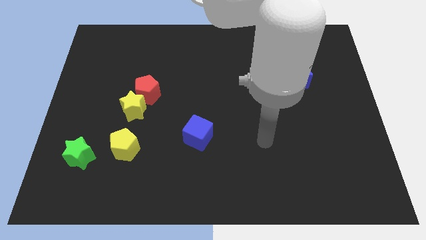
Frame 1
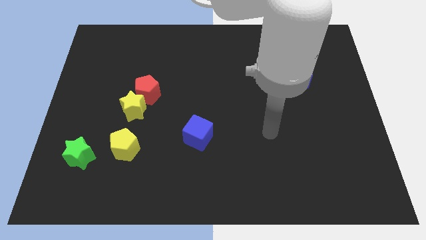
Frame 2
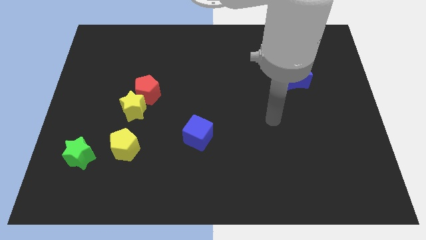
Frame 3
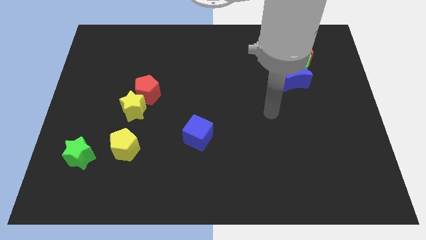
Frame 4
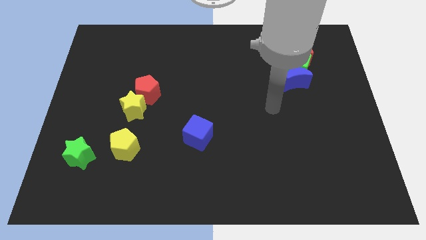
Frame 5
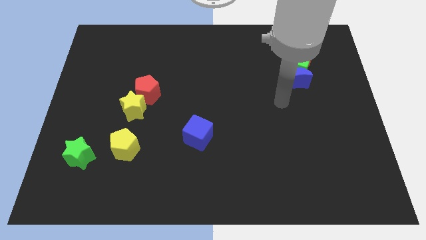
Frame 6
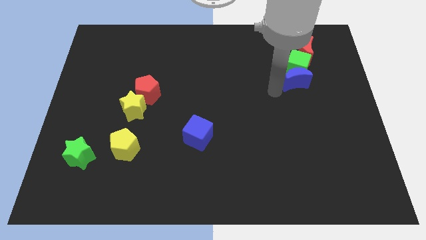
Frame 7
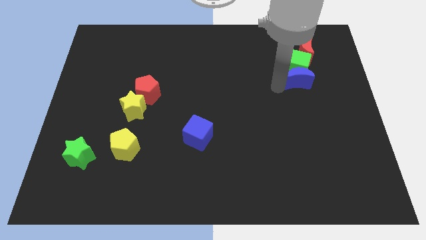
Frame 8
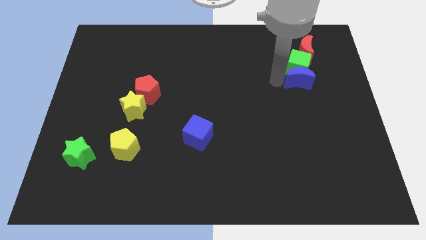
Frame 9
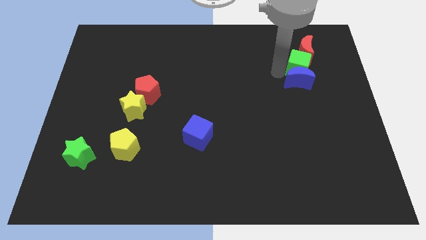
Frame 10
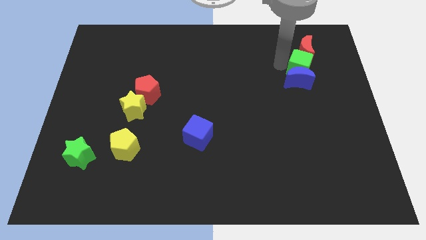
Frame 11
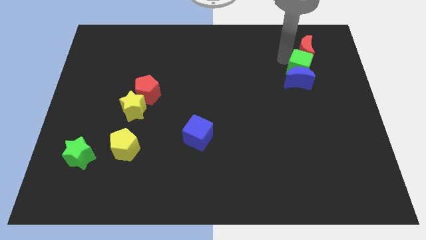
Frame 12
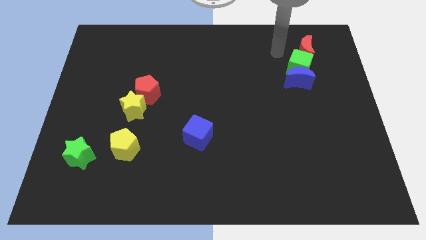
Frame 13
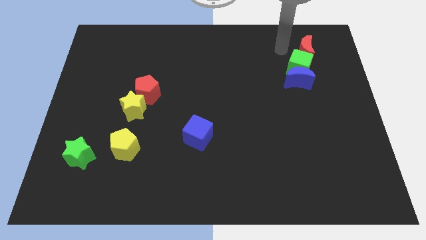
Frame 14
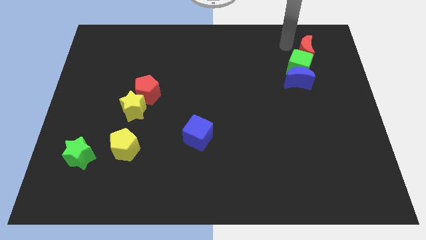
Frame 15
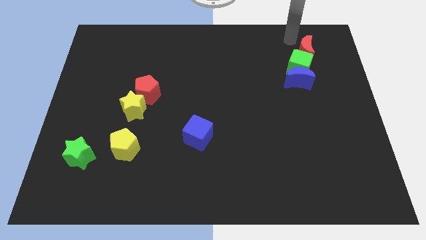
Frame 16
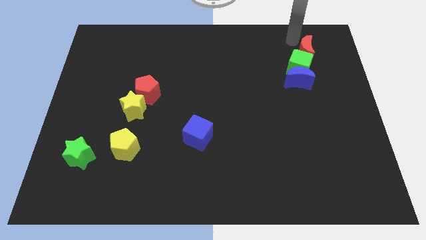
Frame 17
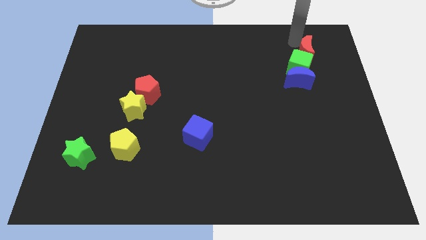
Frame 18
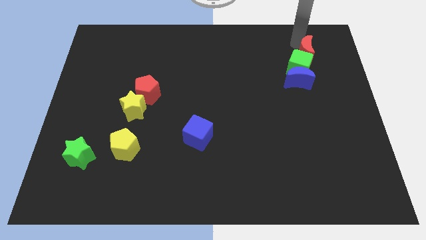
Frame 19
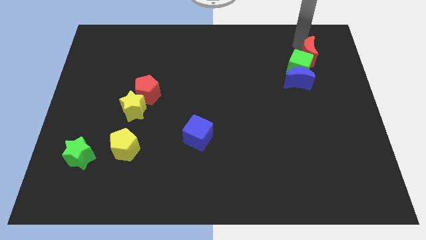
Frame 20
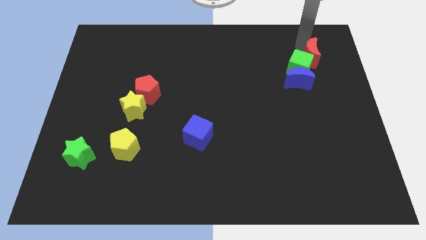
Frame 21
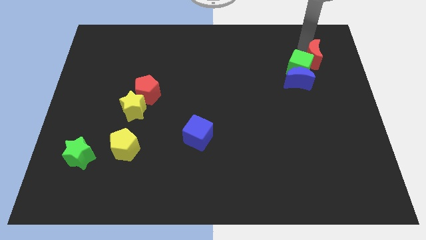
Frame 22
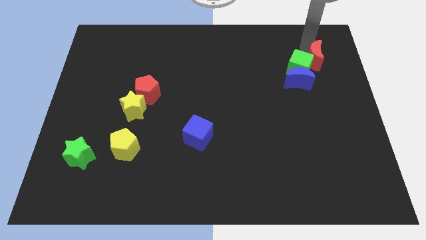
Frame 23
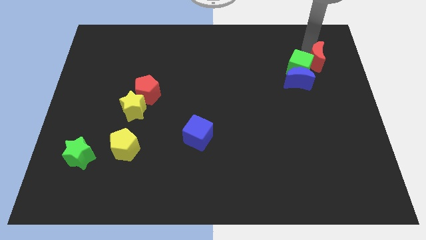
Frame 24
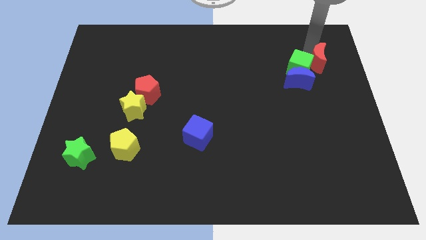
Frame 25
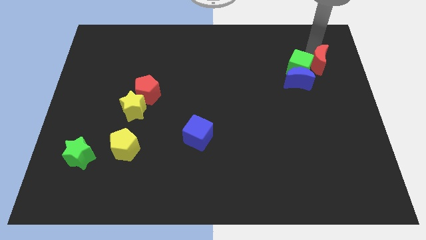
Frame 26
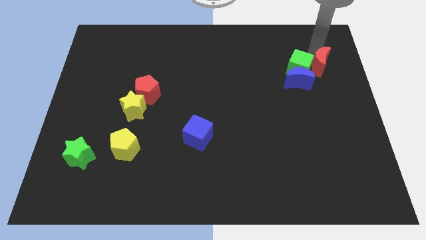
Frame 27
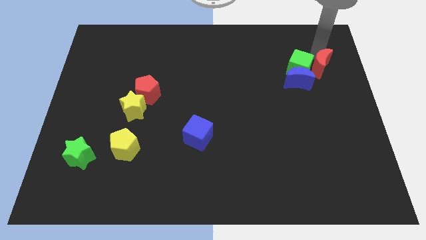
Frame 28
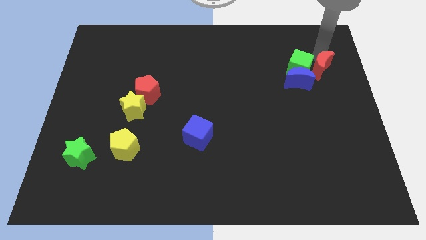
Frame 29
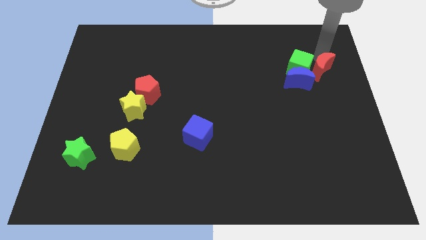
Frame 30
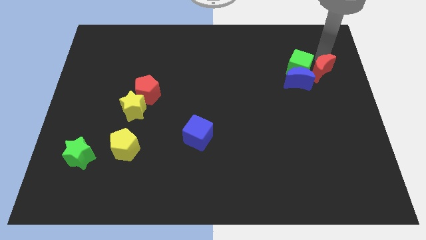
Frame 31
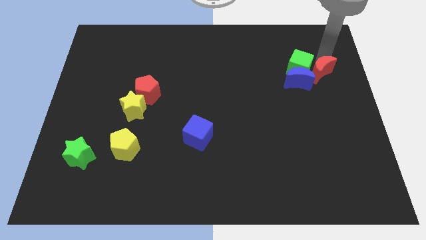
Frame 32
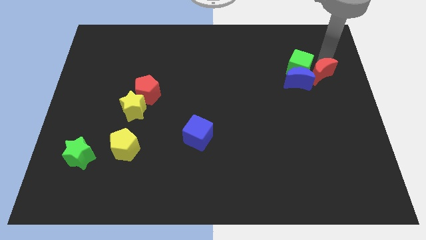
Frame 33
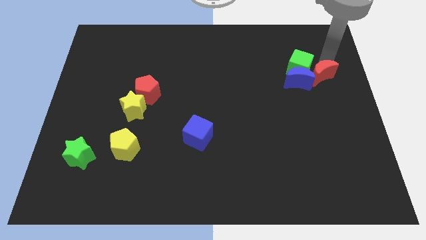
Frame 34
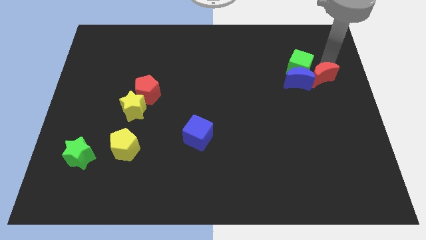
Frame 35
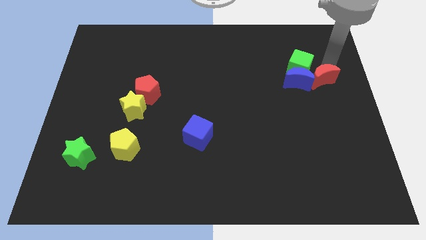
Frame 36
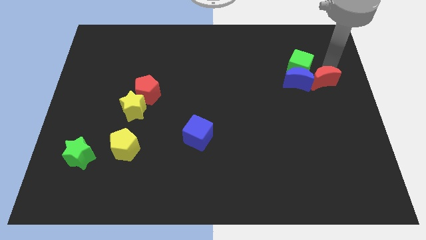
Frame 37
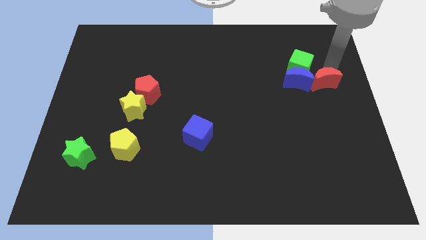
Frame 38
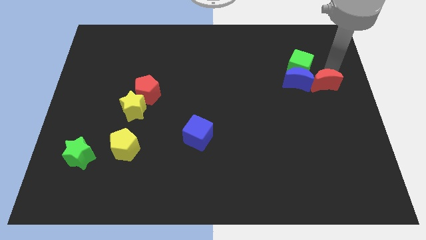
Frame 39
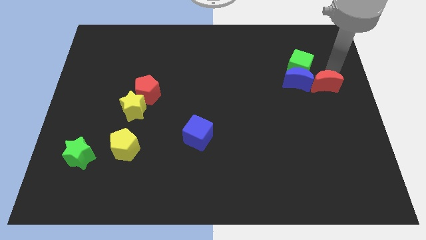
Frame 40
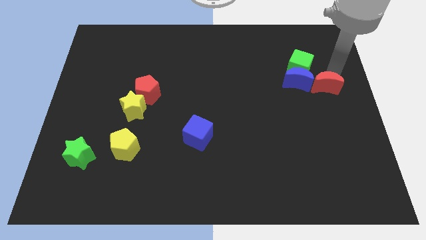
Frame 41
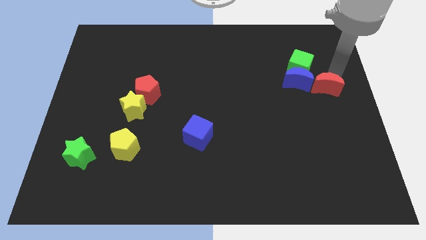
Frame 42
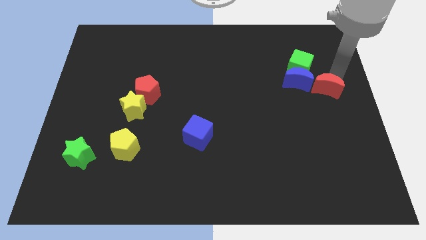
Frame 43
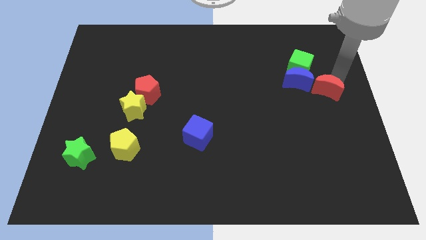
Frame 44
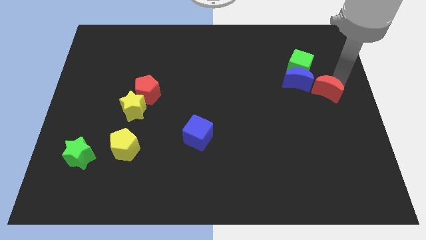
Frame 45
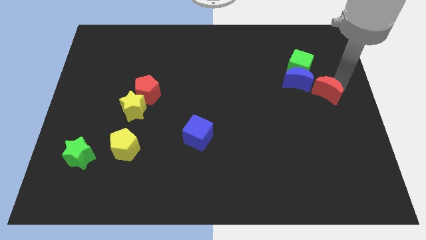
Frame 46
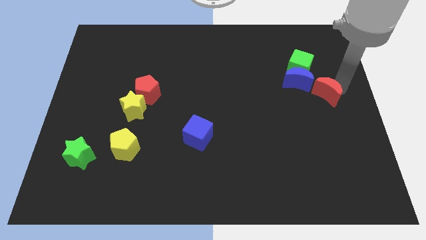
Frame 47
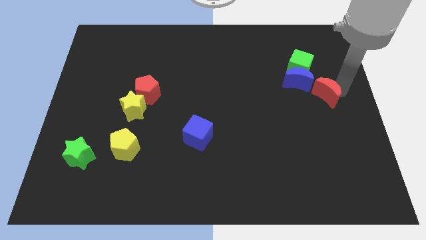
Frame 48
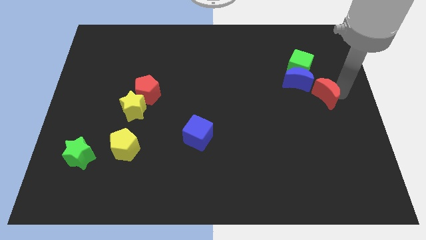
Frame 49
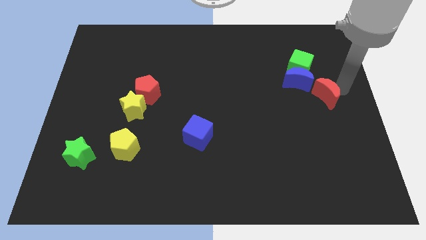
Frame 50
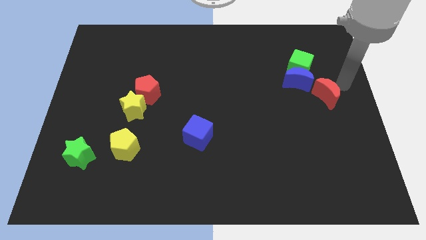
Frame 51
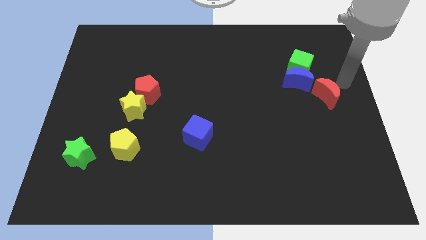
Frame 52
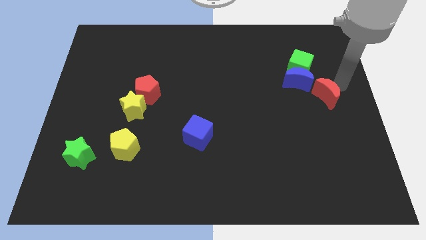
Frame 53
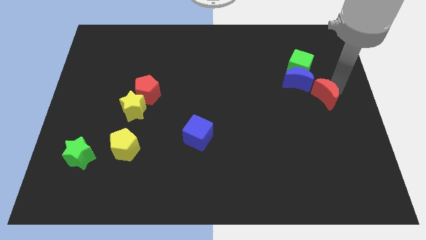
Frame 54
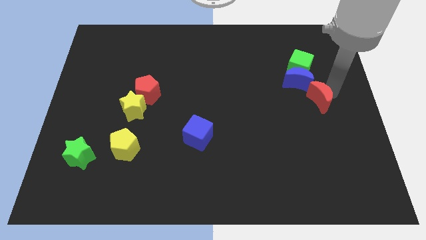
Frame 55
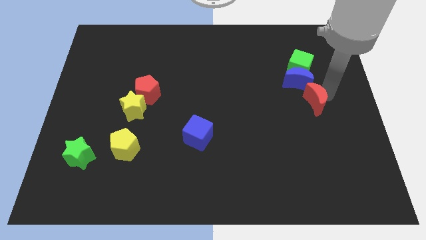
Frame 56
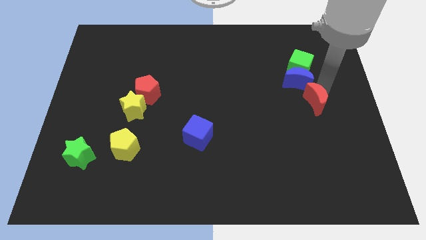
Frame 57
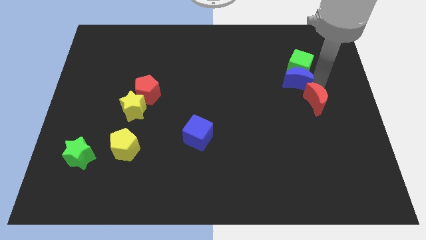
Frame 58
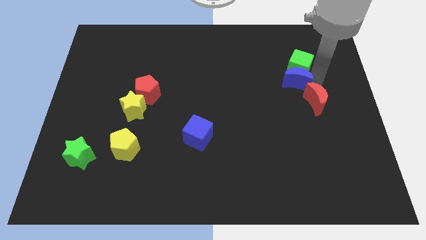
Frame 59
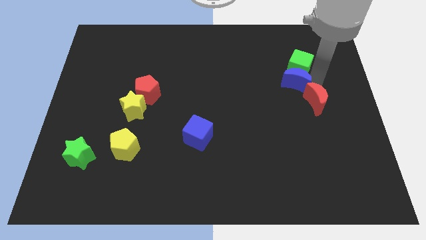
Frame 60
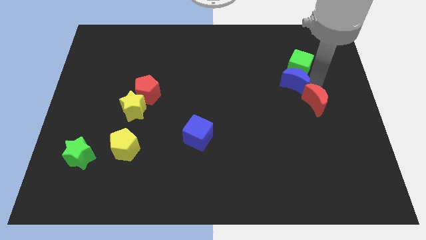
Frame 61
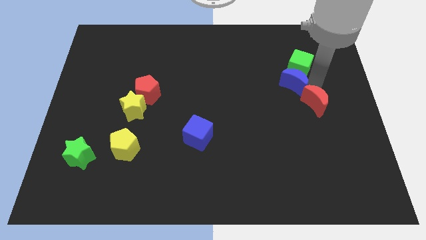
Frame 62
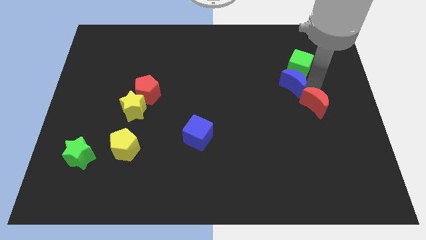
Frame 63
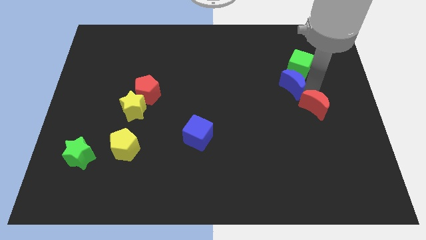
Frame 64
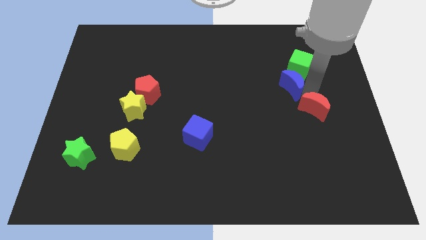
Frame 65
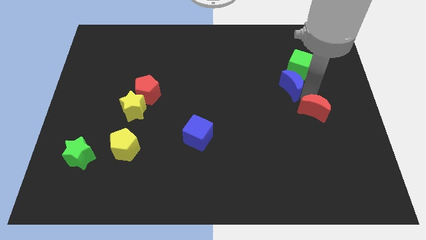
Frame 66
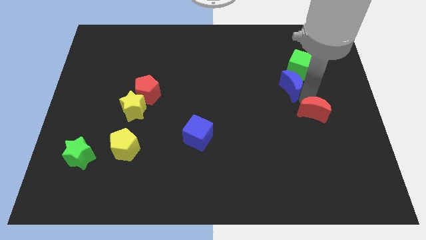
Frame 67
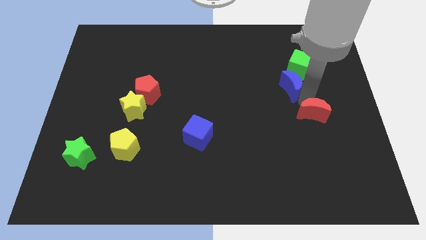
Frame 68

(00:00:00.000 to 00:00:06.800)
move the red moon down

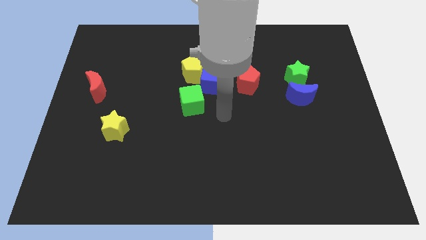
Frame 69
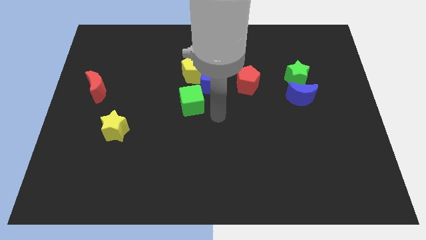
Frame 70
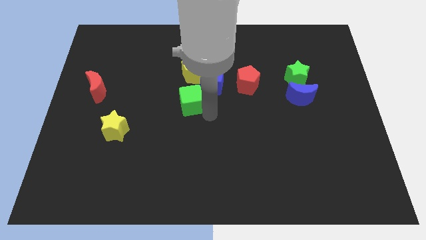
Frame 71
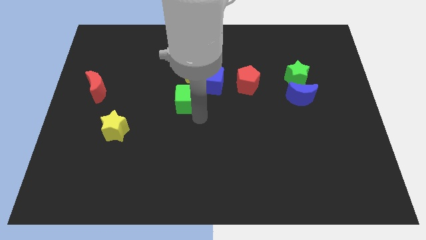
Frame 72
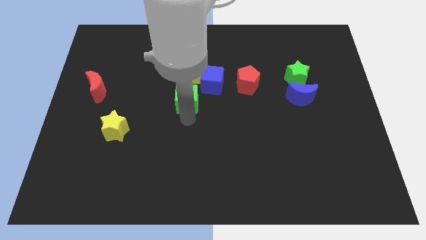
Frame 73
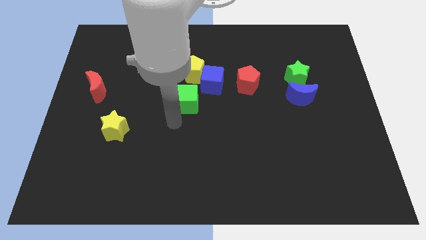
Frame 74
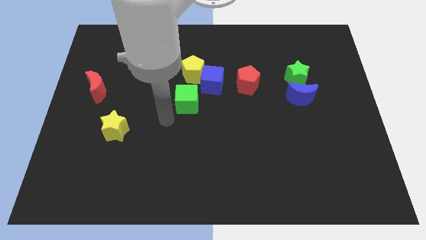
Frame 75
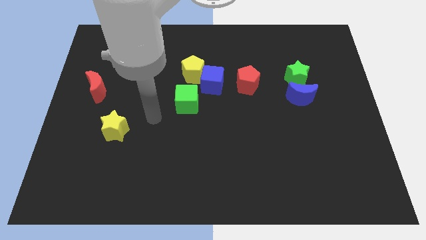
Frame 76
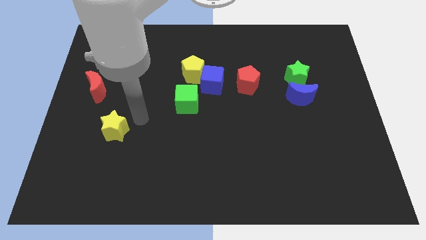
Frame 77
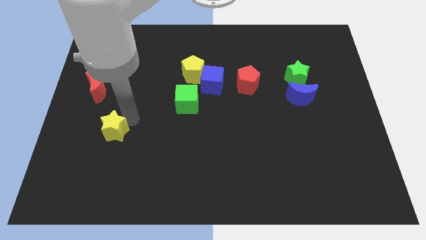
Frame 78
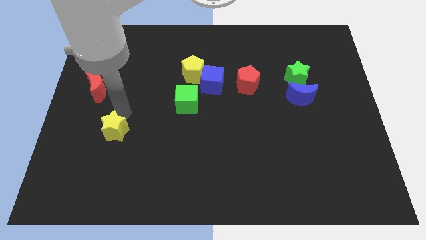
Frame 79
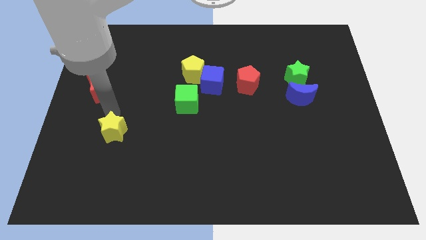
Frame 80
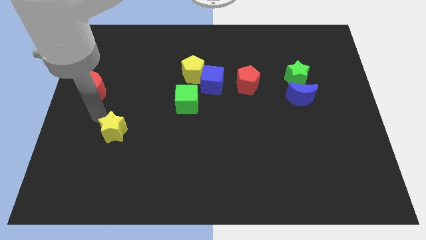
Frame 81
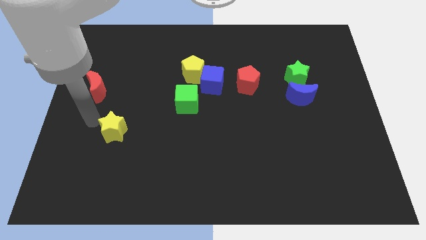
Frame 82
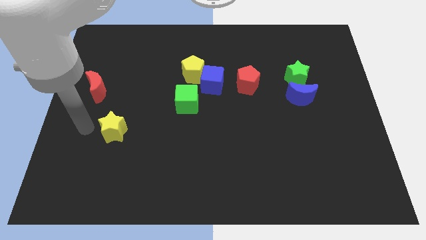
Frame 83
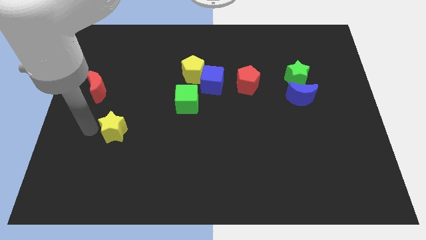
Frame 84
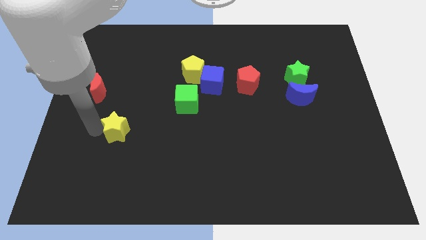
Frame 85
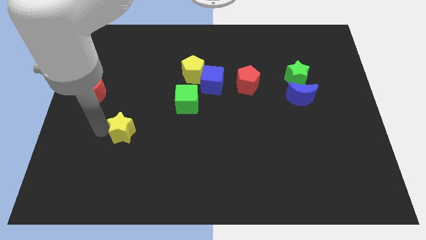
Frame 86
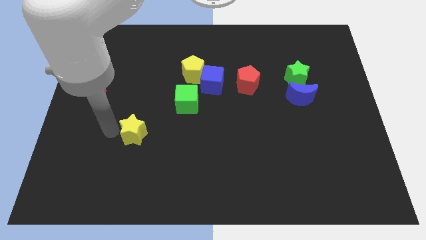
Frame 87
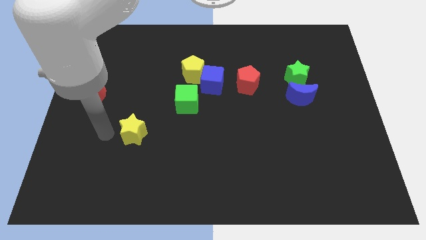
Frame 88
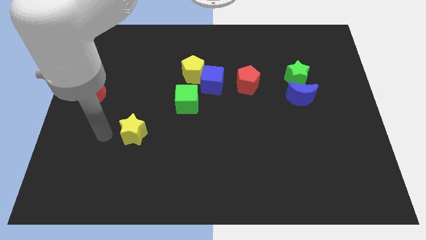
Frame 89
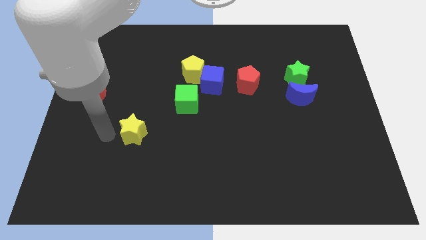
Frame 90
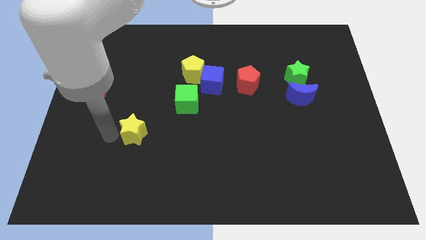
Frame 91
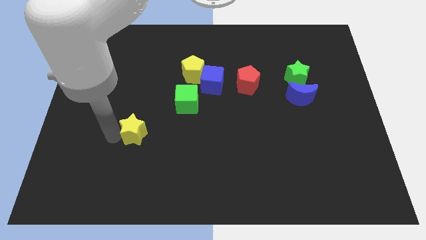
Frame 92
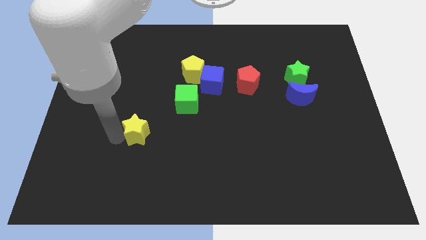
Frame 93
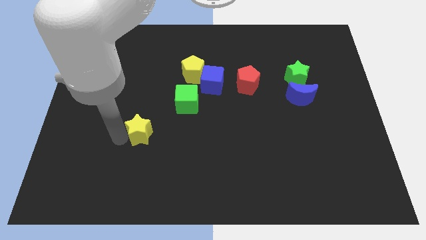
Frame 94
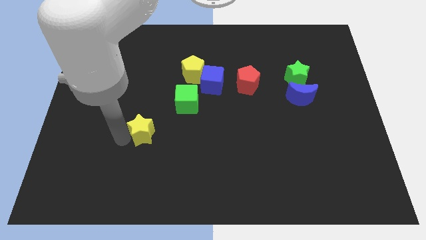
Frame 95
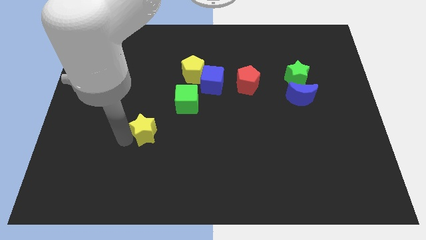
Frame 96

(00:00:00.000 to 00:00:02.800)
slide the yellow star to the right slightly
